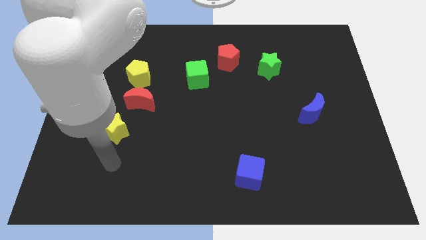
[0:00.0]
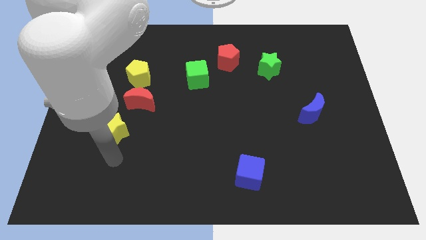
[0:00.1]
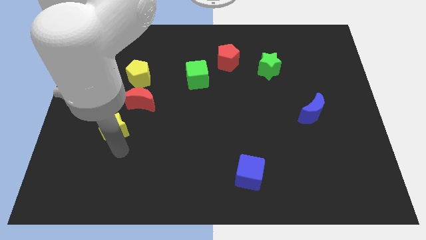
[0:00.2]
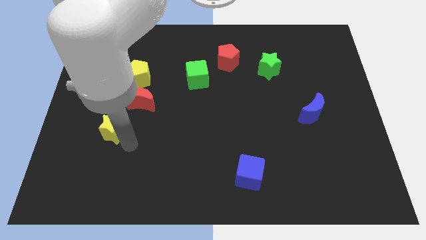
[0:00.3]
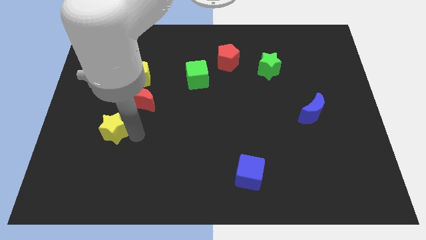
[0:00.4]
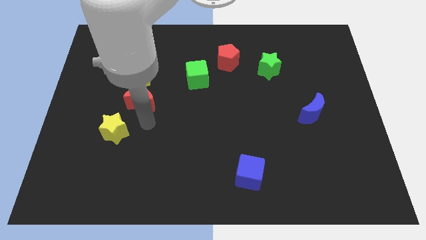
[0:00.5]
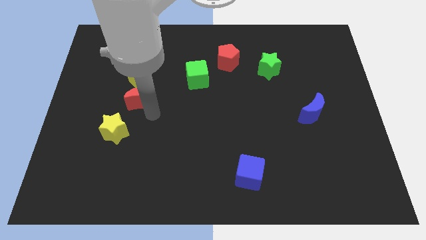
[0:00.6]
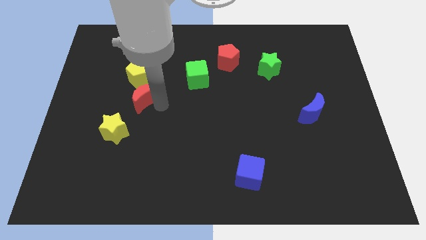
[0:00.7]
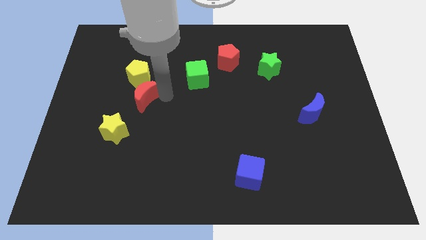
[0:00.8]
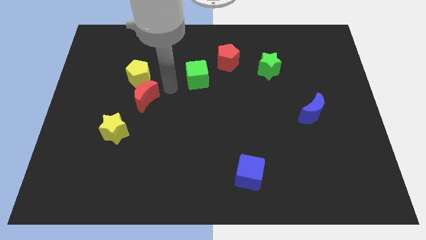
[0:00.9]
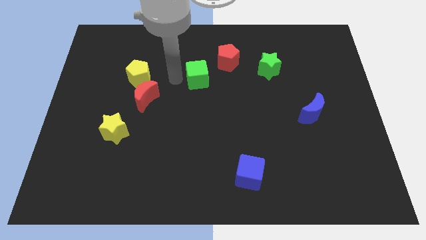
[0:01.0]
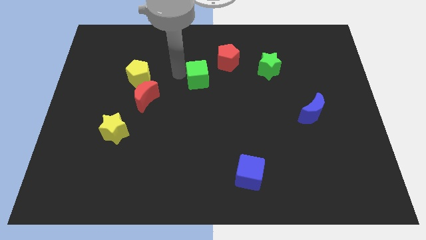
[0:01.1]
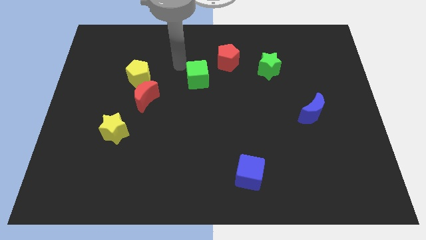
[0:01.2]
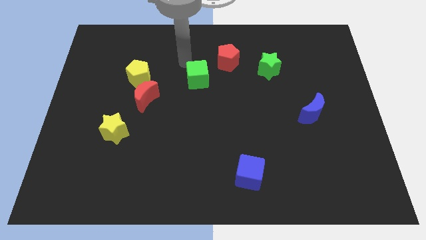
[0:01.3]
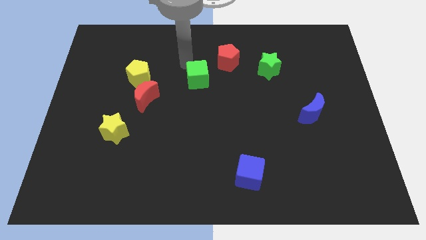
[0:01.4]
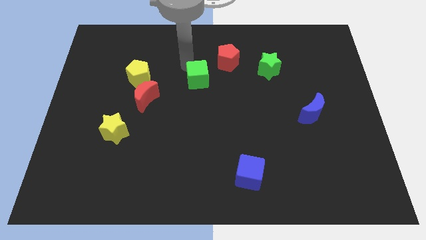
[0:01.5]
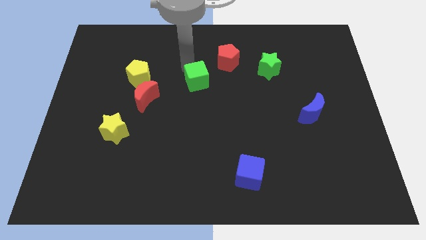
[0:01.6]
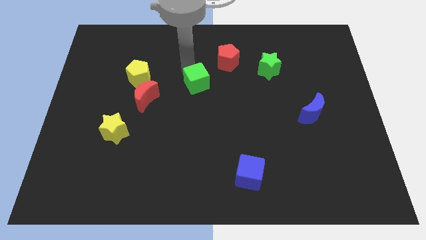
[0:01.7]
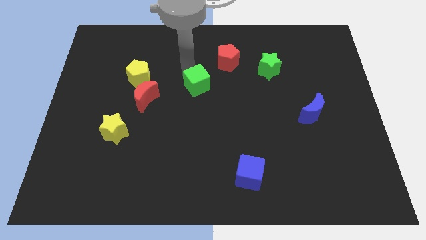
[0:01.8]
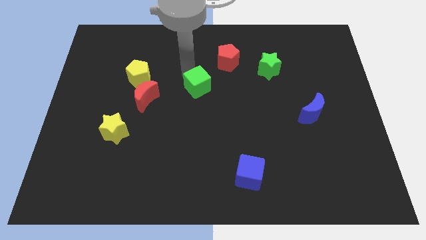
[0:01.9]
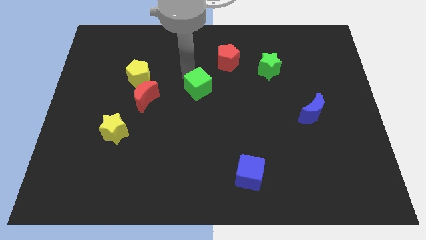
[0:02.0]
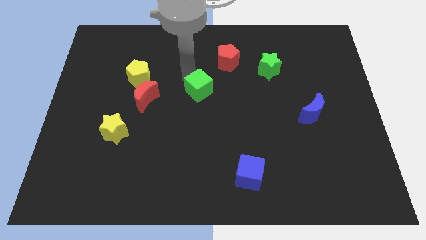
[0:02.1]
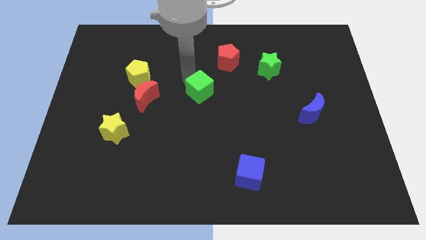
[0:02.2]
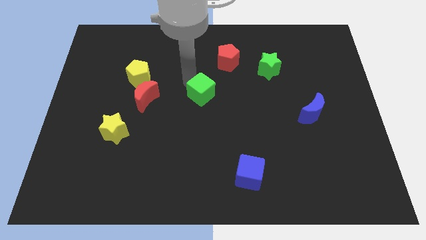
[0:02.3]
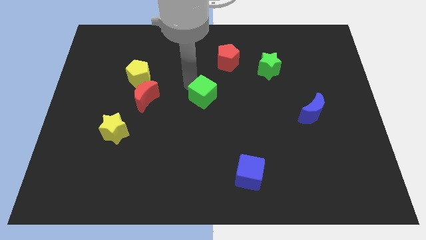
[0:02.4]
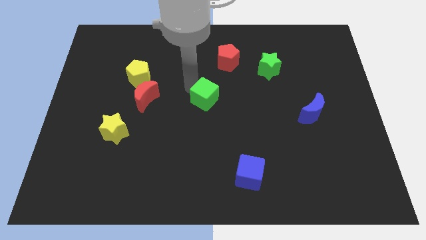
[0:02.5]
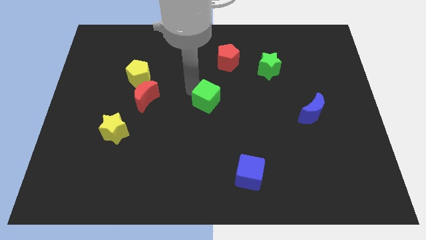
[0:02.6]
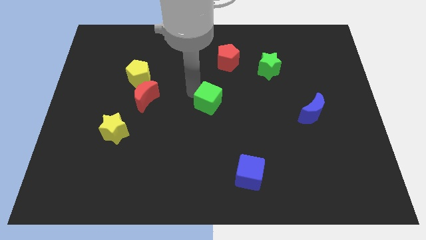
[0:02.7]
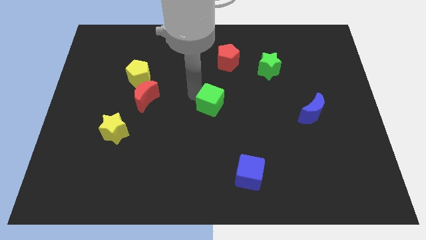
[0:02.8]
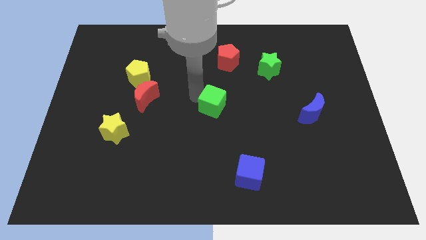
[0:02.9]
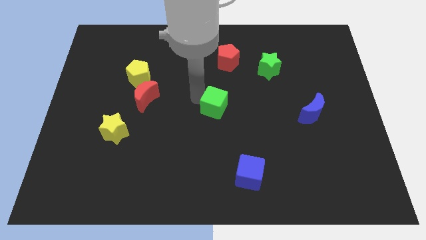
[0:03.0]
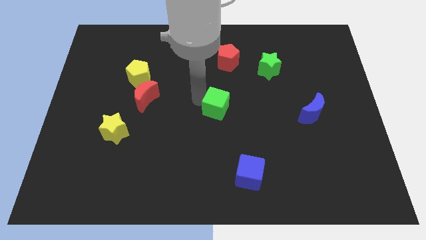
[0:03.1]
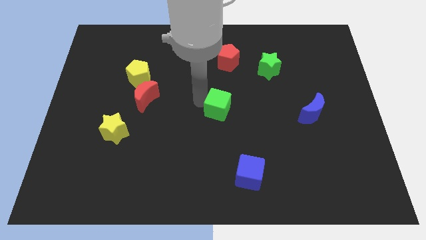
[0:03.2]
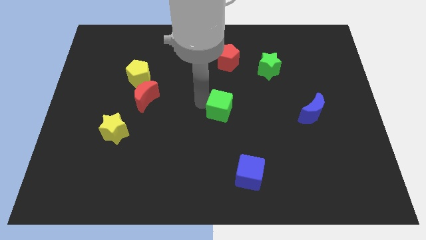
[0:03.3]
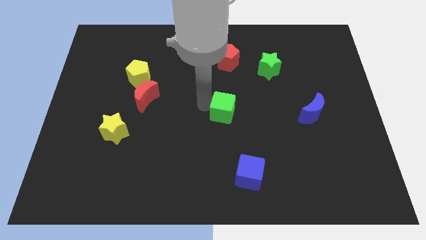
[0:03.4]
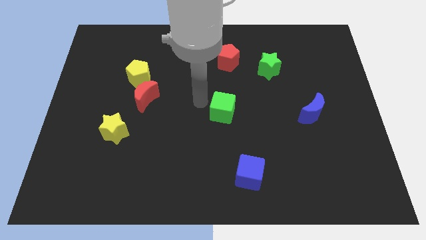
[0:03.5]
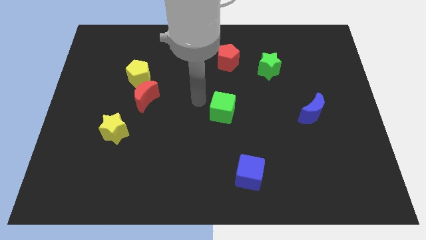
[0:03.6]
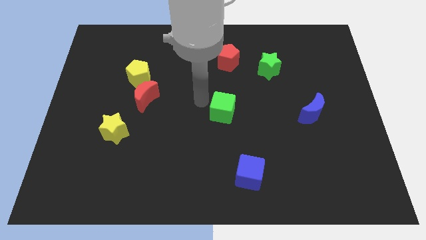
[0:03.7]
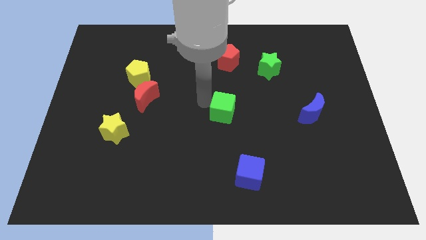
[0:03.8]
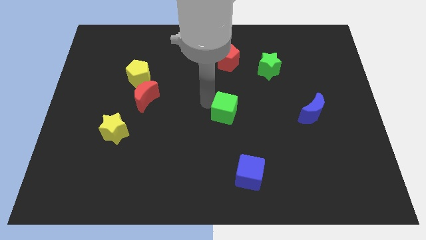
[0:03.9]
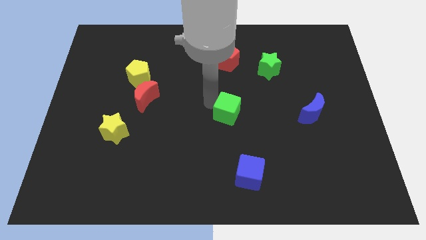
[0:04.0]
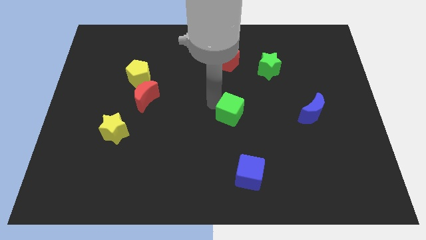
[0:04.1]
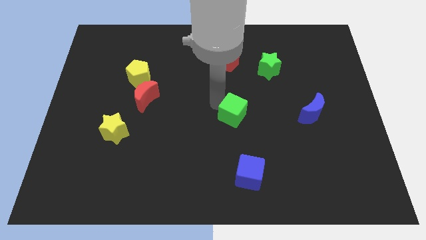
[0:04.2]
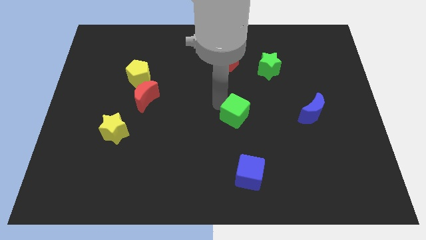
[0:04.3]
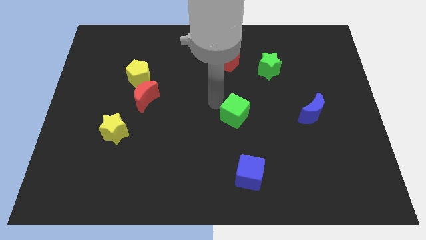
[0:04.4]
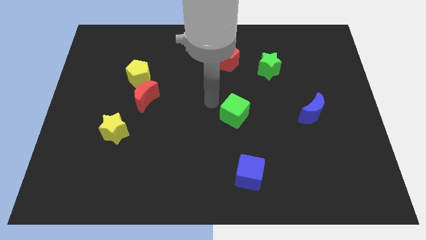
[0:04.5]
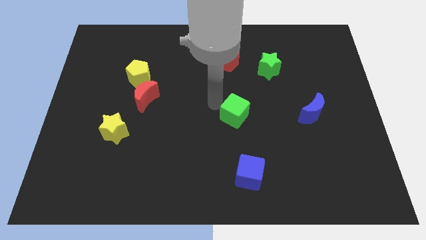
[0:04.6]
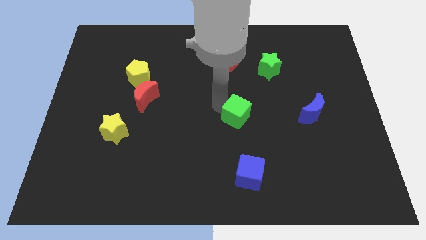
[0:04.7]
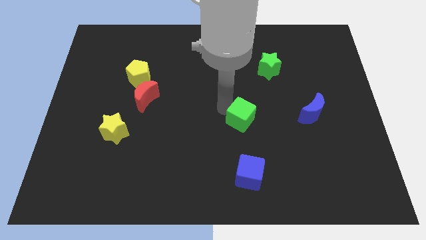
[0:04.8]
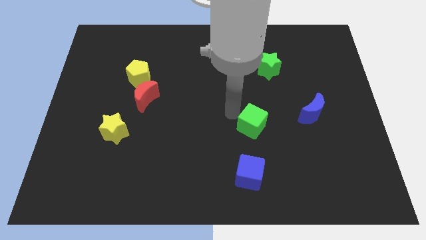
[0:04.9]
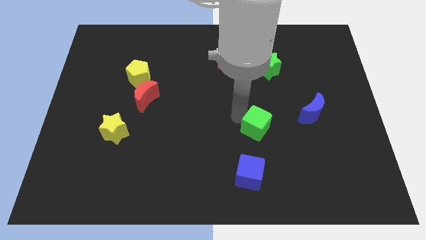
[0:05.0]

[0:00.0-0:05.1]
push the green cube down and then right

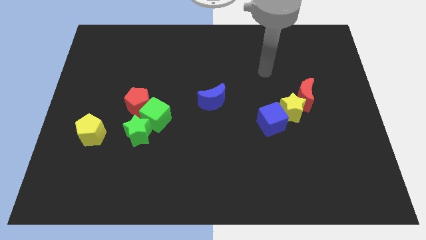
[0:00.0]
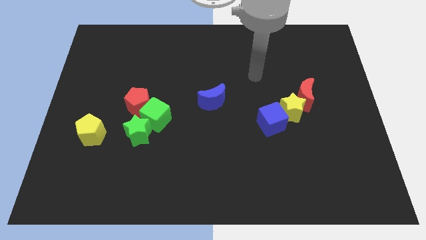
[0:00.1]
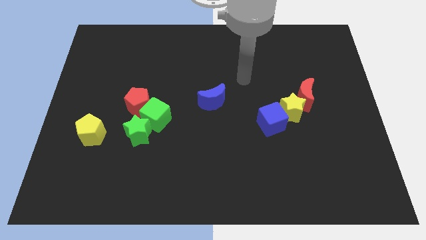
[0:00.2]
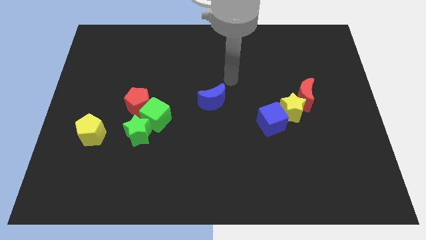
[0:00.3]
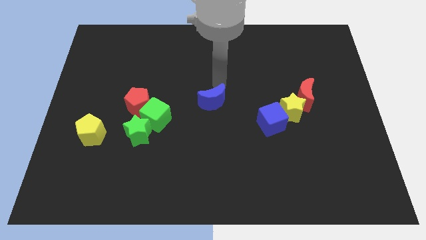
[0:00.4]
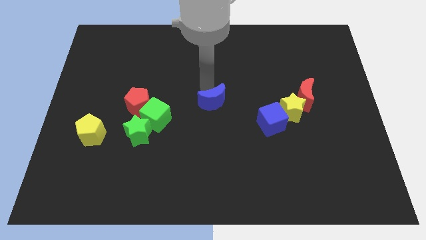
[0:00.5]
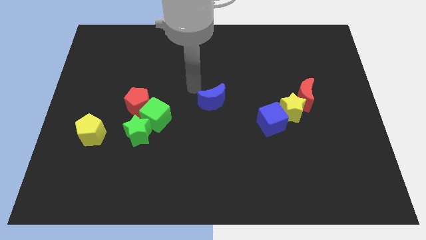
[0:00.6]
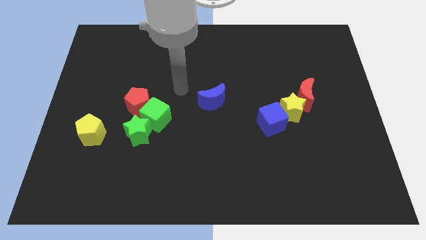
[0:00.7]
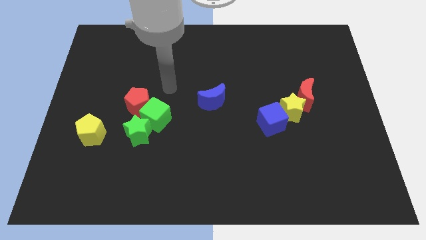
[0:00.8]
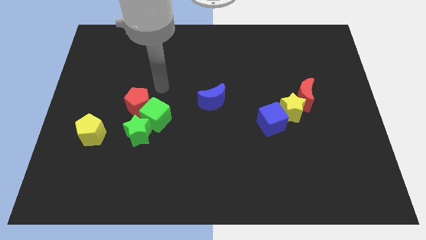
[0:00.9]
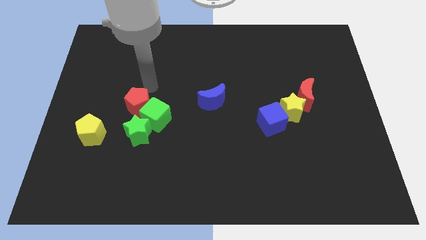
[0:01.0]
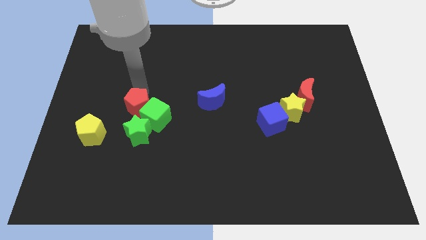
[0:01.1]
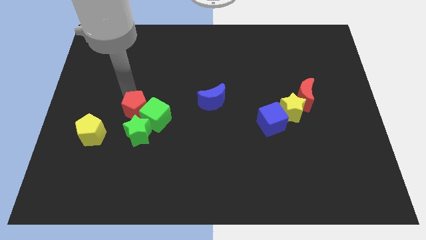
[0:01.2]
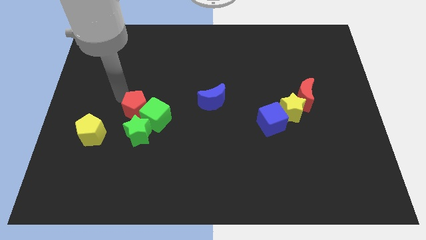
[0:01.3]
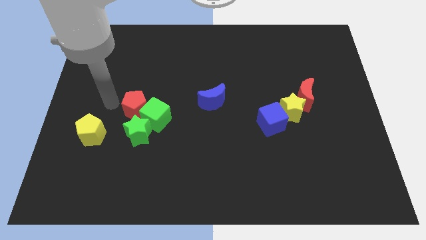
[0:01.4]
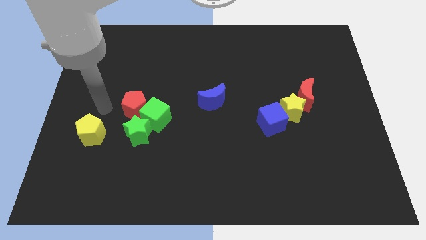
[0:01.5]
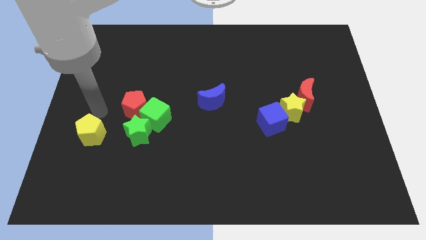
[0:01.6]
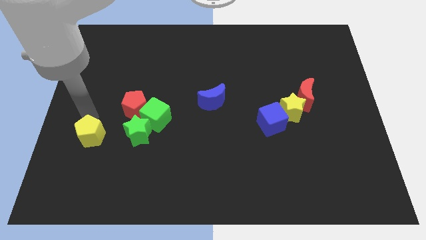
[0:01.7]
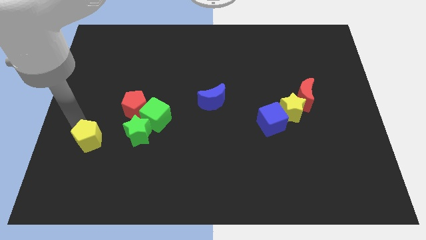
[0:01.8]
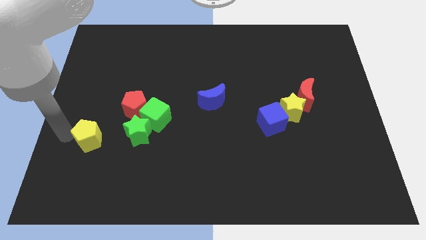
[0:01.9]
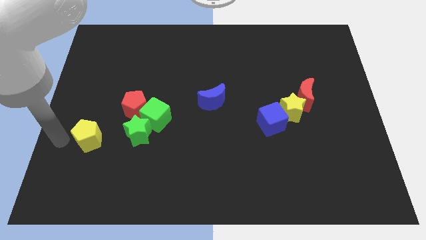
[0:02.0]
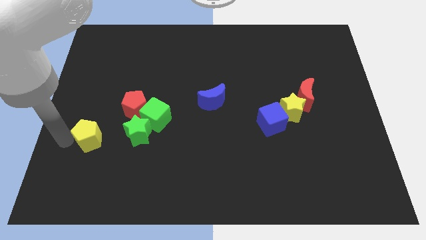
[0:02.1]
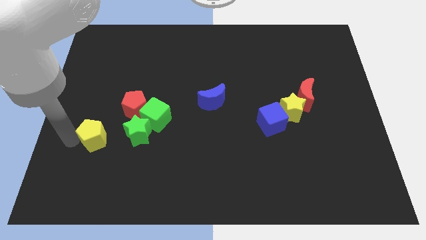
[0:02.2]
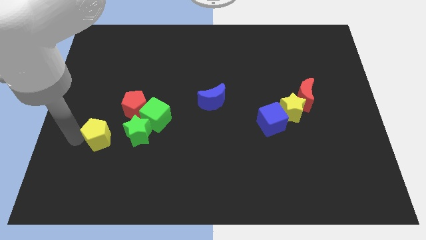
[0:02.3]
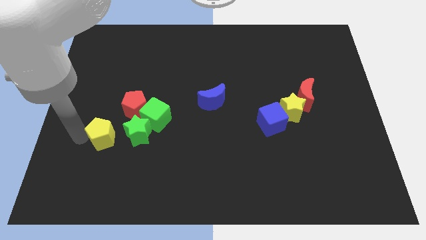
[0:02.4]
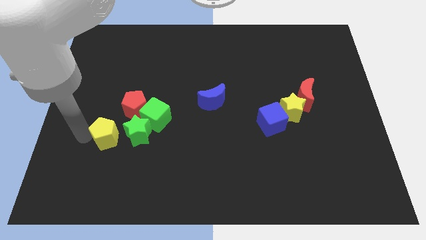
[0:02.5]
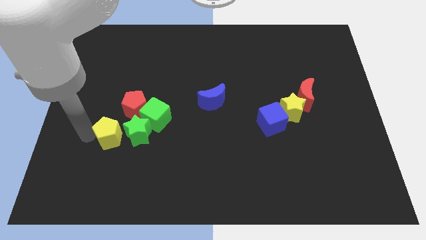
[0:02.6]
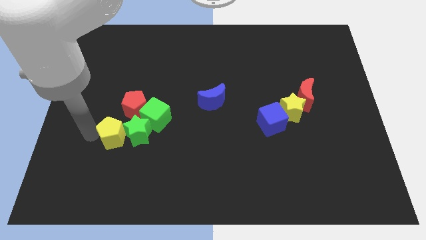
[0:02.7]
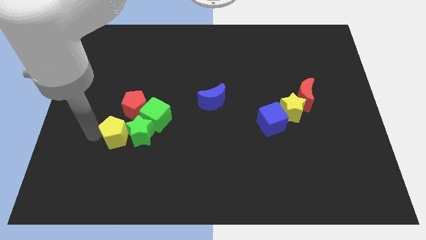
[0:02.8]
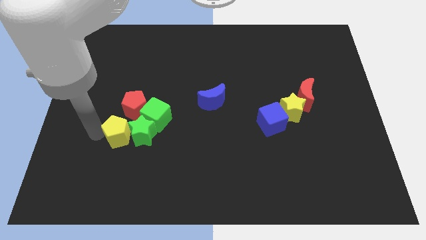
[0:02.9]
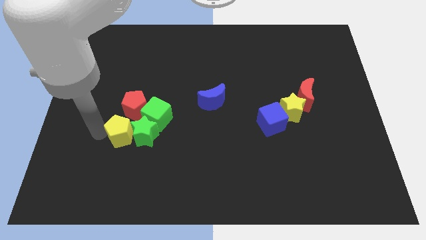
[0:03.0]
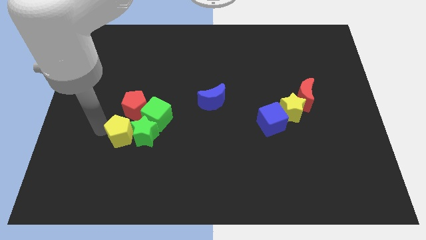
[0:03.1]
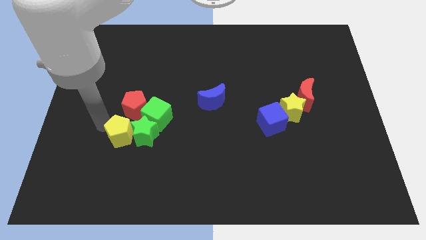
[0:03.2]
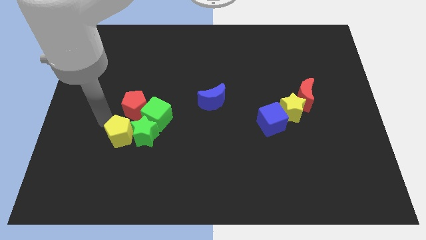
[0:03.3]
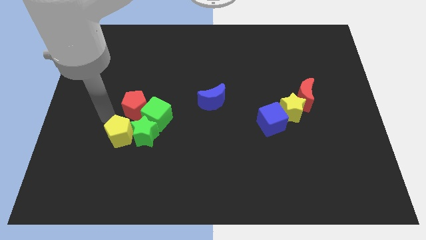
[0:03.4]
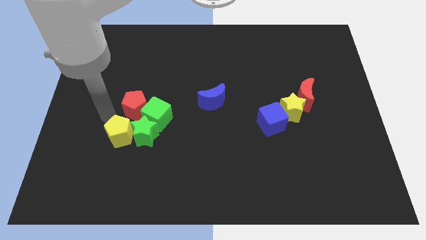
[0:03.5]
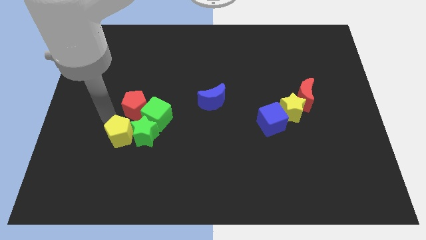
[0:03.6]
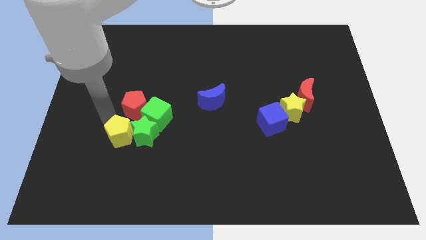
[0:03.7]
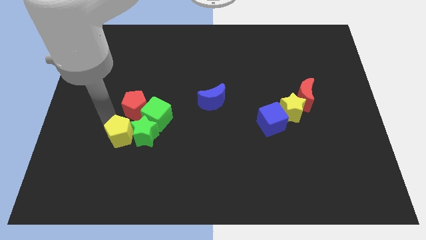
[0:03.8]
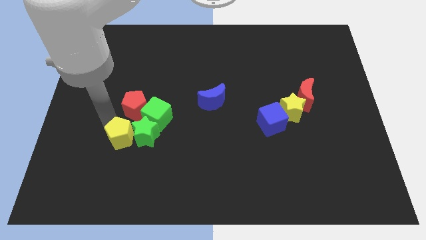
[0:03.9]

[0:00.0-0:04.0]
slightly move the yellow pentagon right
